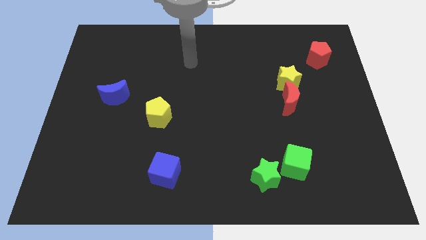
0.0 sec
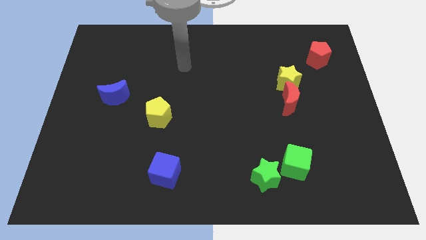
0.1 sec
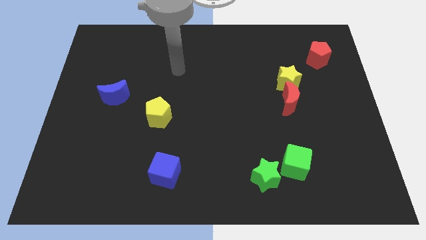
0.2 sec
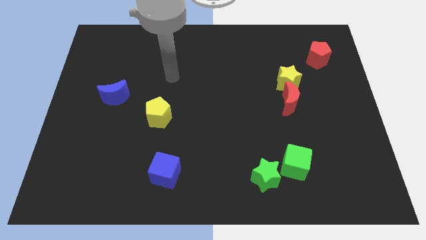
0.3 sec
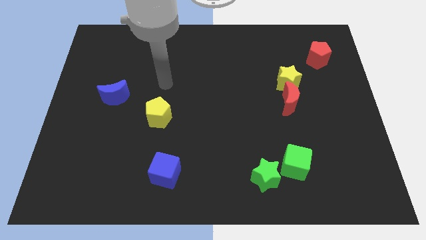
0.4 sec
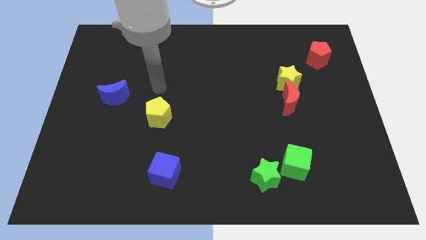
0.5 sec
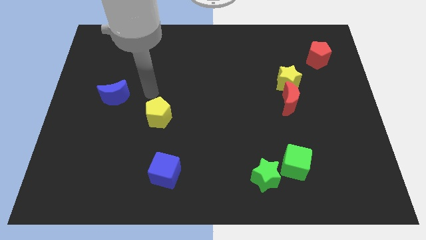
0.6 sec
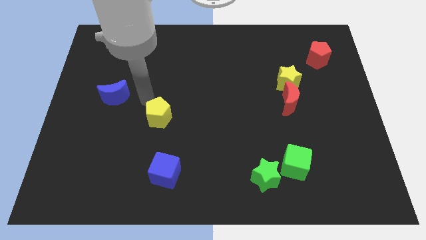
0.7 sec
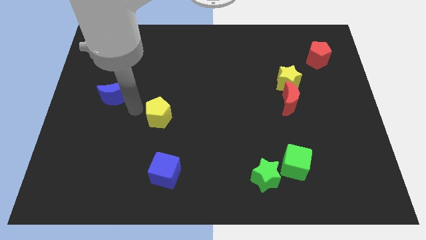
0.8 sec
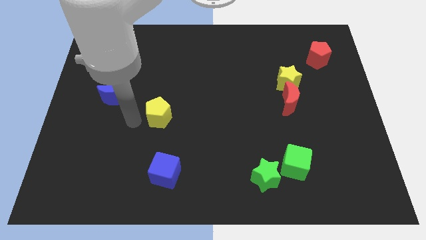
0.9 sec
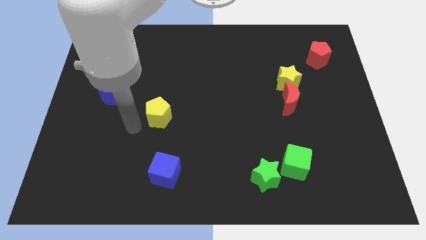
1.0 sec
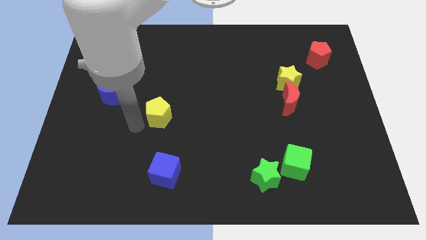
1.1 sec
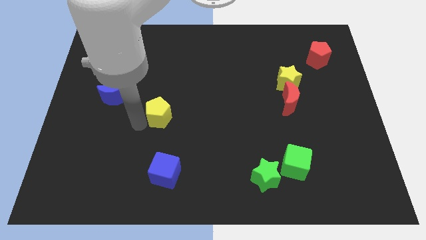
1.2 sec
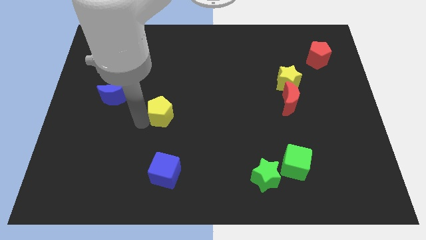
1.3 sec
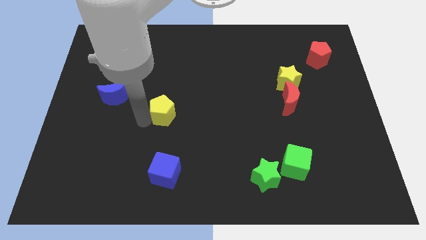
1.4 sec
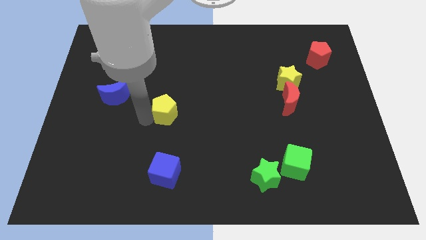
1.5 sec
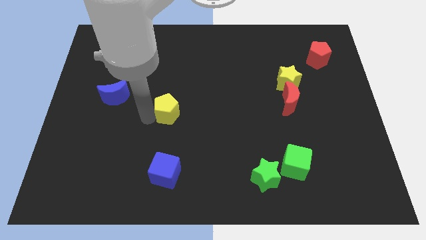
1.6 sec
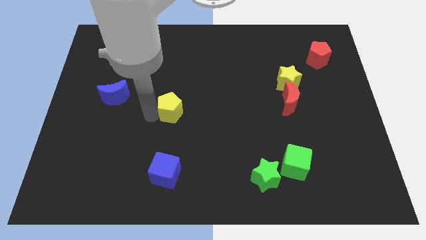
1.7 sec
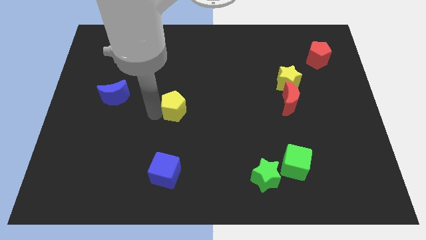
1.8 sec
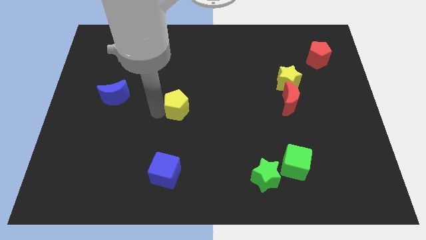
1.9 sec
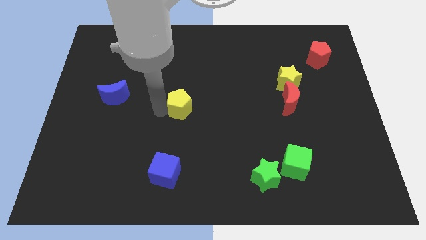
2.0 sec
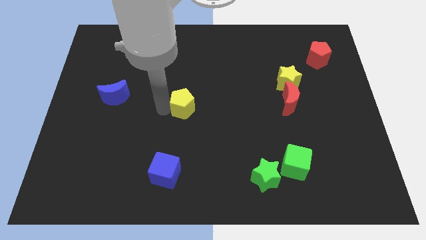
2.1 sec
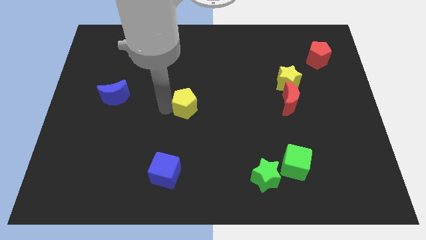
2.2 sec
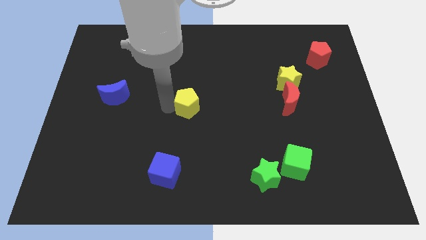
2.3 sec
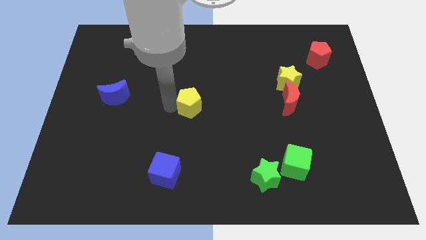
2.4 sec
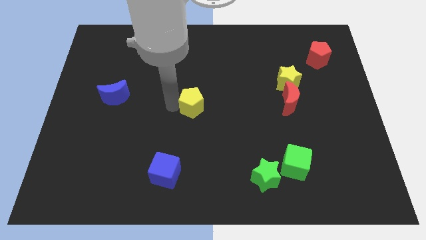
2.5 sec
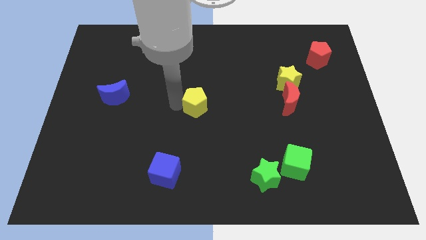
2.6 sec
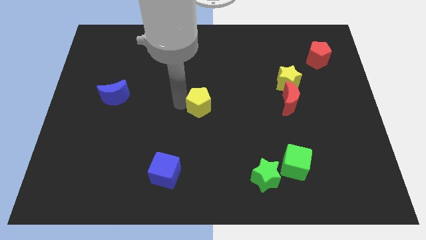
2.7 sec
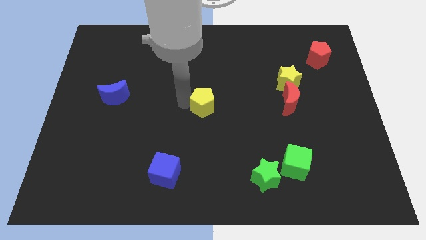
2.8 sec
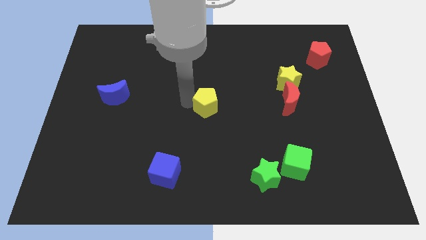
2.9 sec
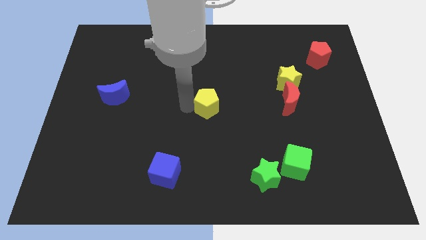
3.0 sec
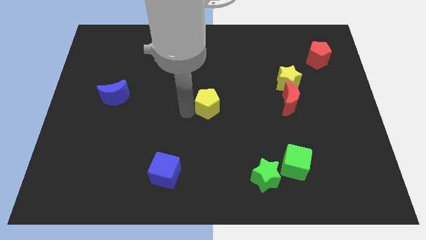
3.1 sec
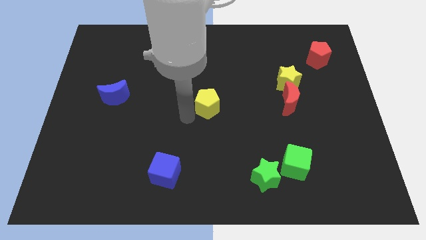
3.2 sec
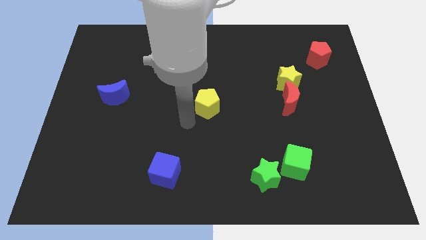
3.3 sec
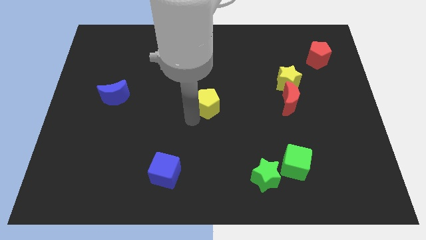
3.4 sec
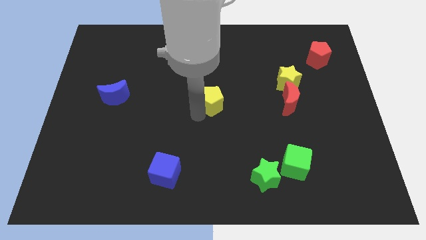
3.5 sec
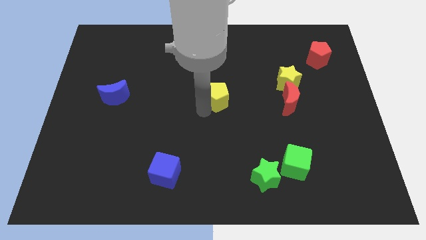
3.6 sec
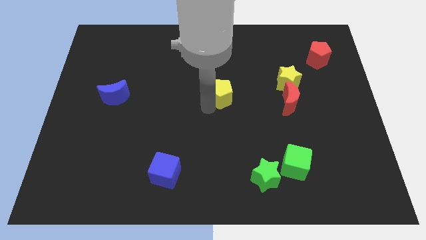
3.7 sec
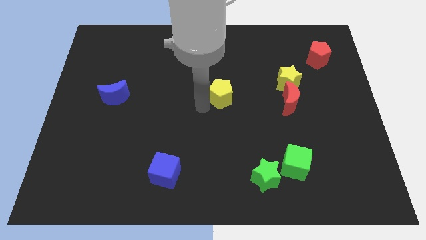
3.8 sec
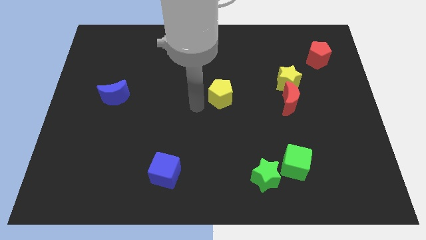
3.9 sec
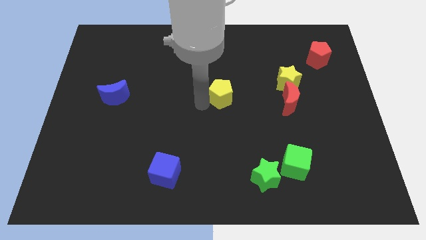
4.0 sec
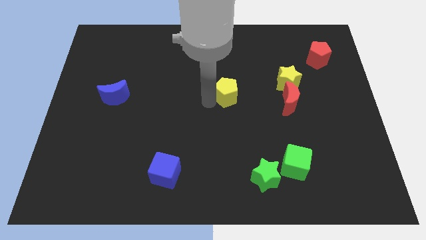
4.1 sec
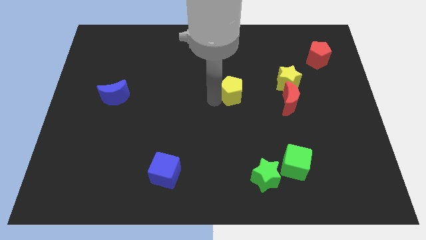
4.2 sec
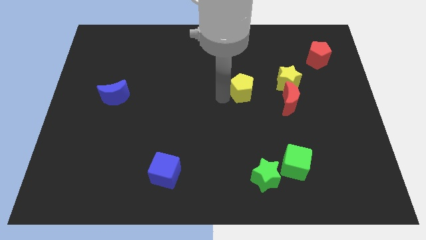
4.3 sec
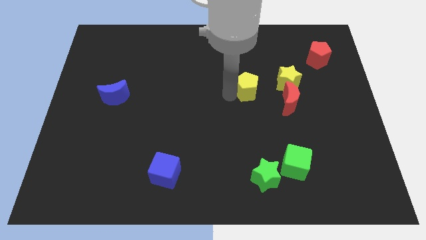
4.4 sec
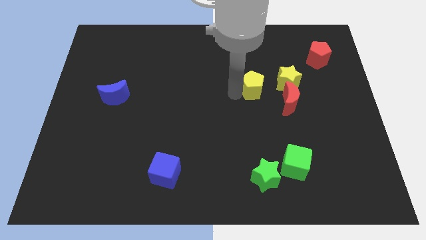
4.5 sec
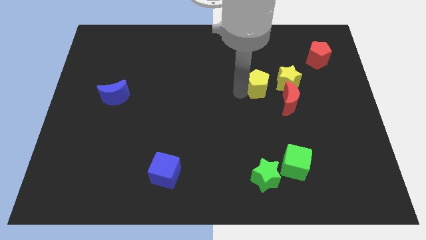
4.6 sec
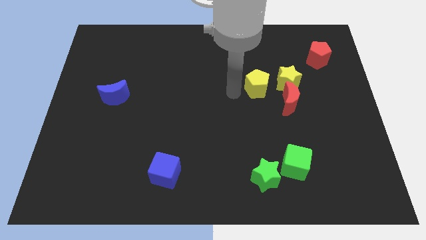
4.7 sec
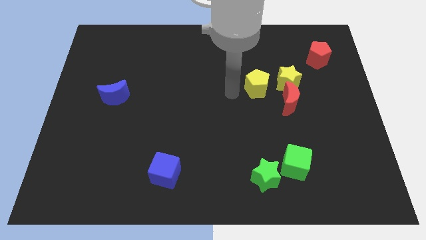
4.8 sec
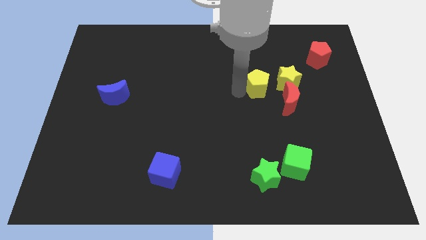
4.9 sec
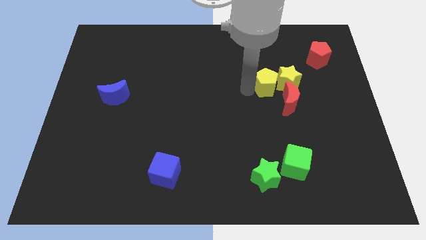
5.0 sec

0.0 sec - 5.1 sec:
slide the yellow pentagon next to the yellow star

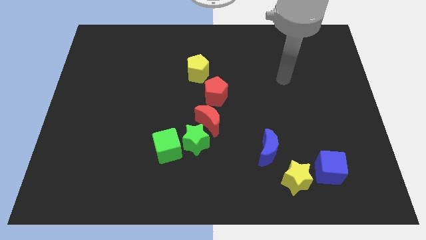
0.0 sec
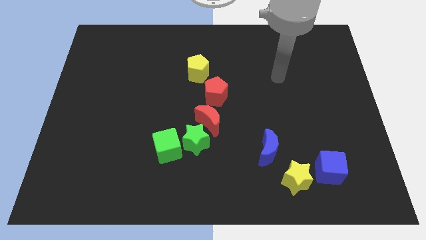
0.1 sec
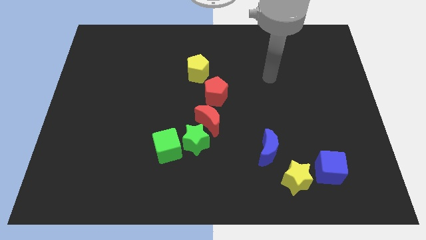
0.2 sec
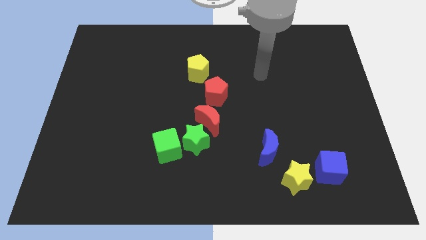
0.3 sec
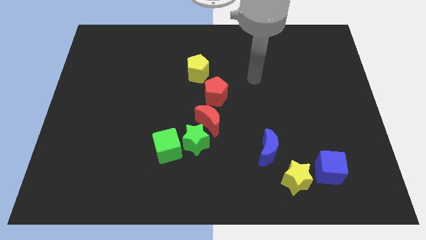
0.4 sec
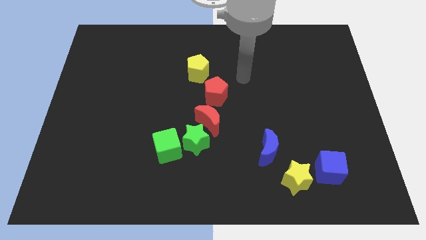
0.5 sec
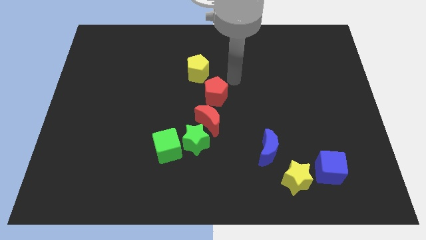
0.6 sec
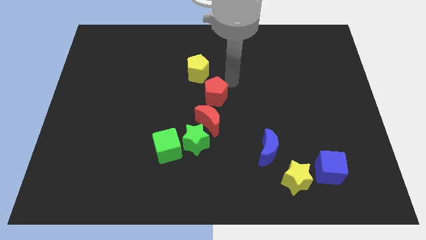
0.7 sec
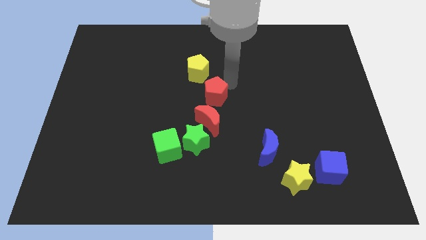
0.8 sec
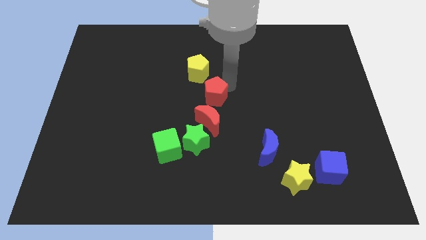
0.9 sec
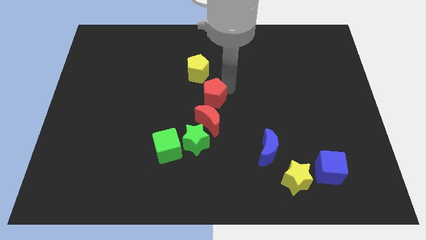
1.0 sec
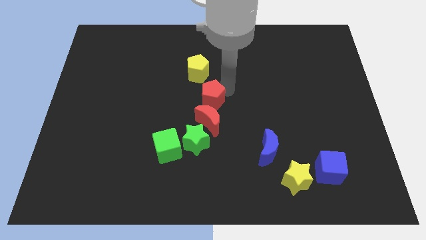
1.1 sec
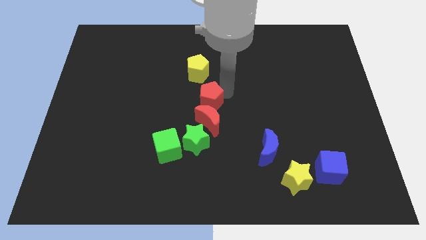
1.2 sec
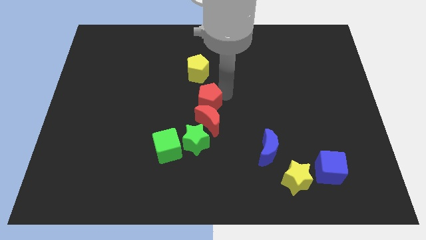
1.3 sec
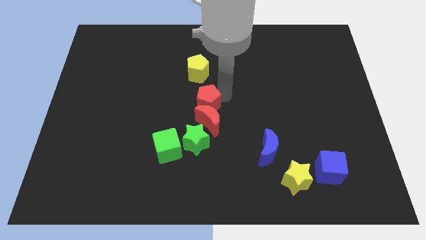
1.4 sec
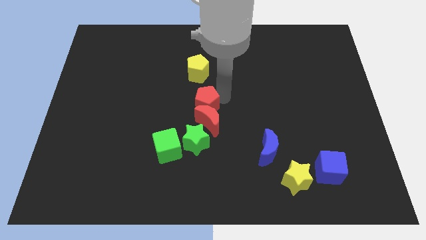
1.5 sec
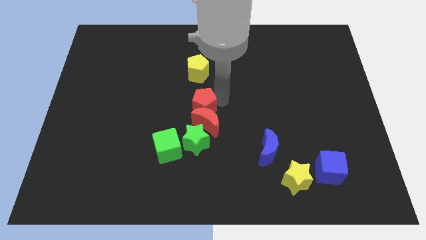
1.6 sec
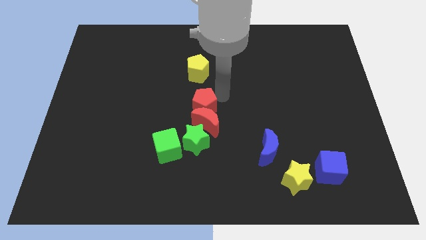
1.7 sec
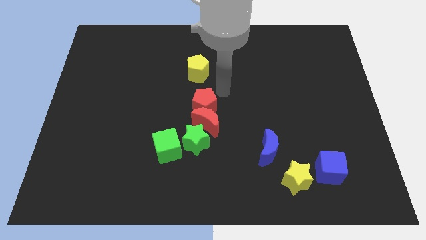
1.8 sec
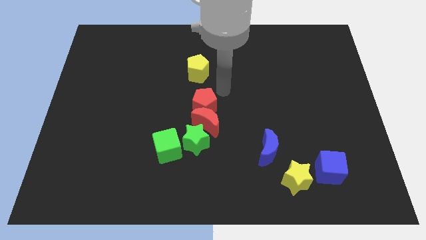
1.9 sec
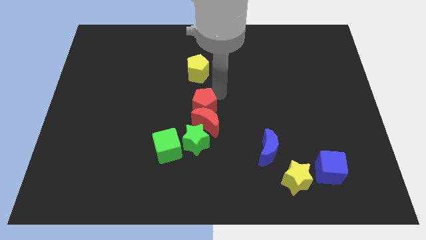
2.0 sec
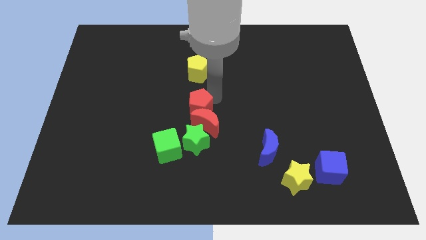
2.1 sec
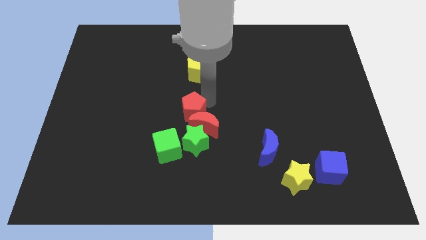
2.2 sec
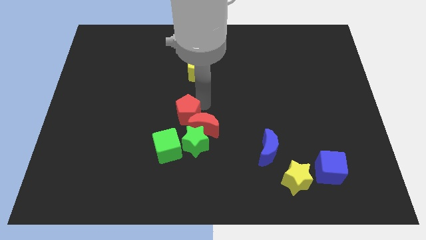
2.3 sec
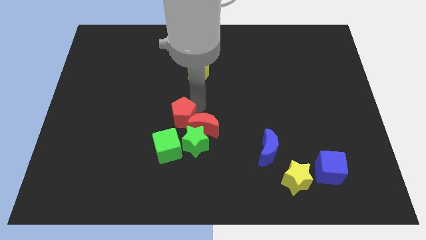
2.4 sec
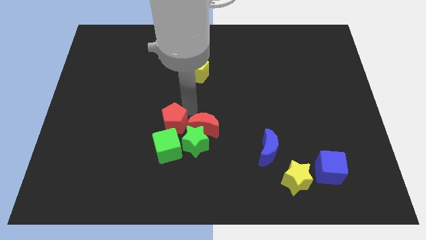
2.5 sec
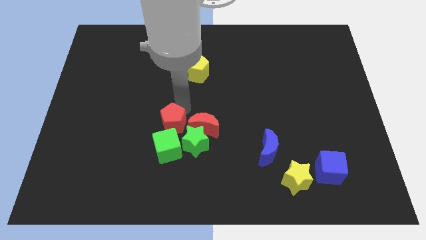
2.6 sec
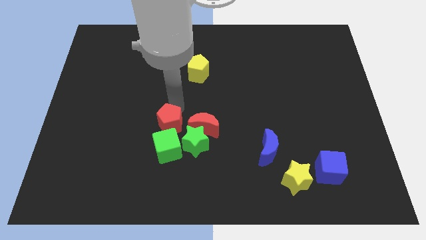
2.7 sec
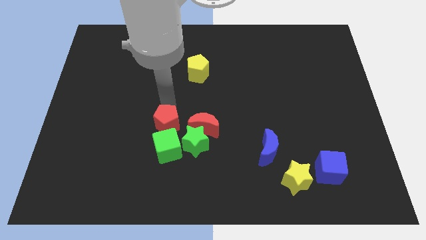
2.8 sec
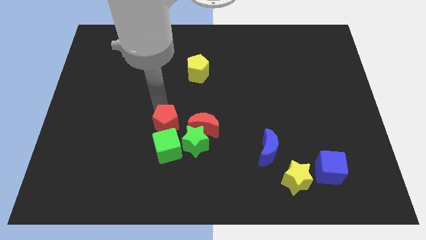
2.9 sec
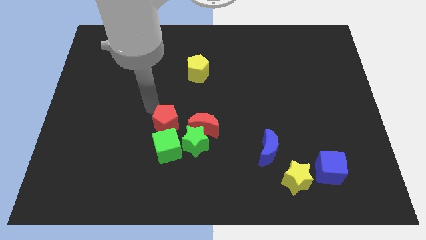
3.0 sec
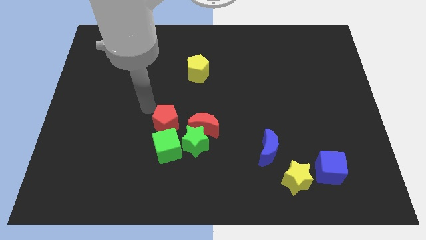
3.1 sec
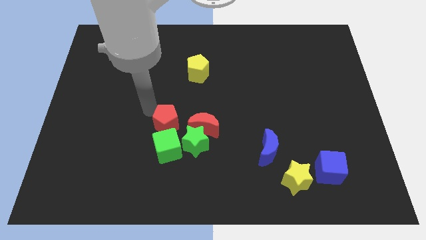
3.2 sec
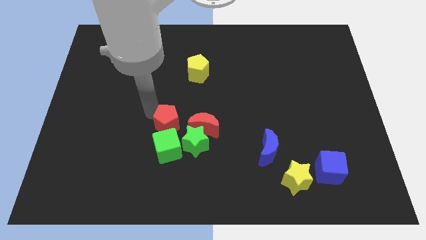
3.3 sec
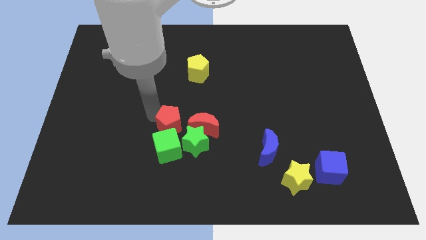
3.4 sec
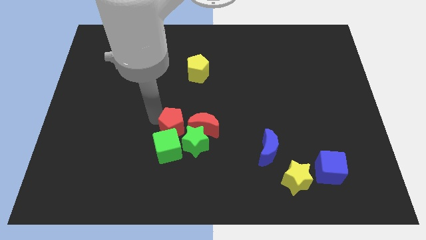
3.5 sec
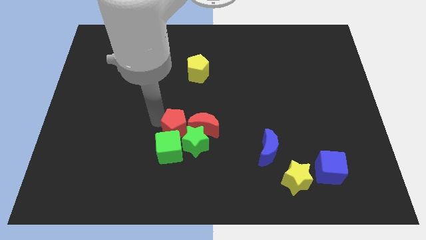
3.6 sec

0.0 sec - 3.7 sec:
slide the red pentagon towards the green star
